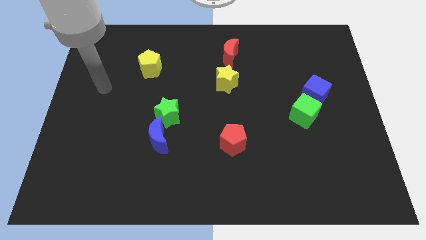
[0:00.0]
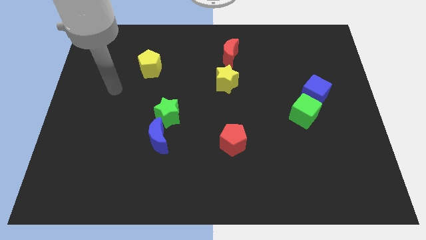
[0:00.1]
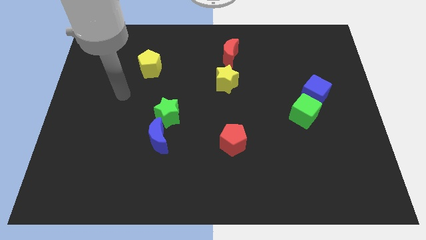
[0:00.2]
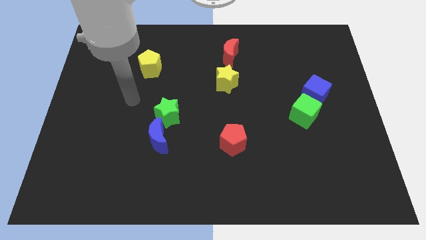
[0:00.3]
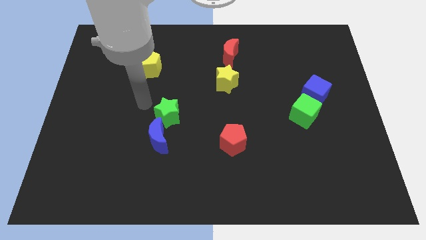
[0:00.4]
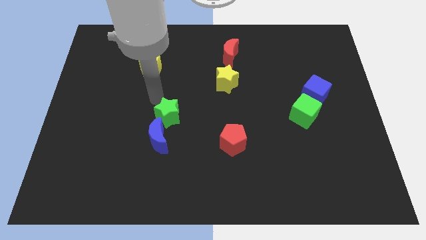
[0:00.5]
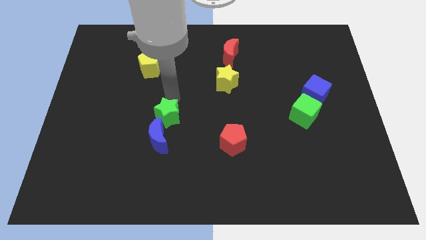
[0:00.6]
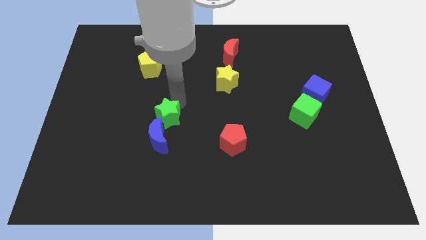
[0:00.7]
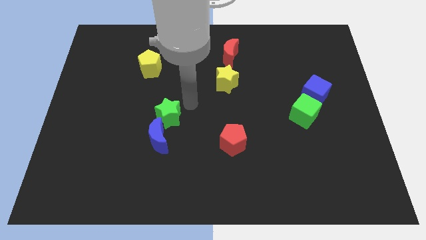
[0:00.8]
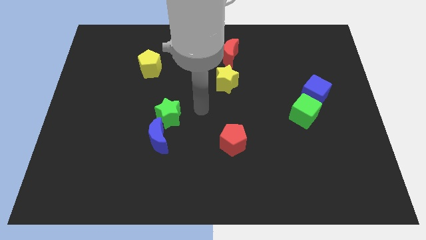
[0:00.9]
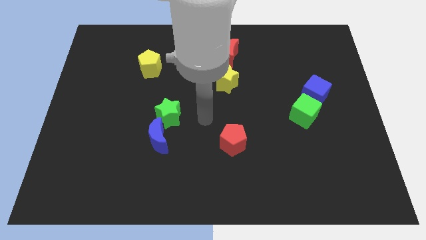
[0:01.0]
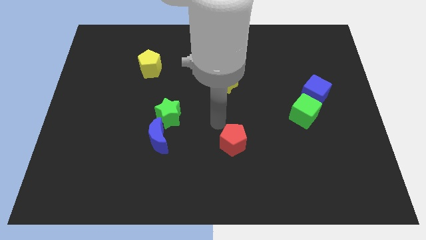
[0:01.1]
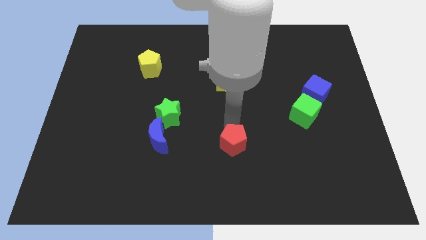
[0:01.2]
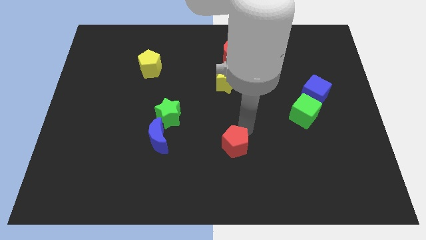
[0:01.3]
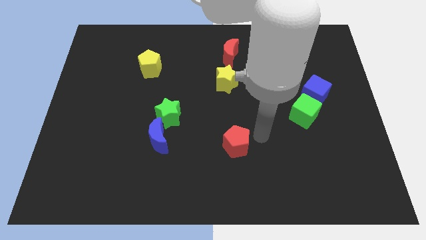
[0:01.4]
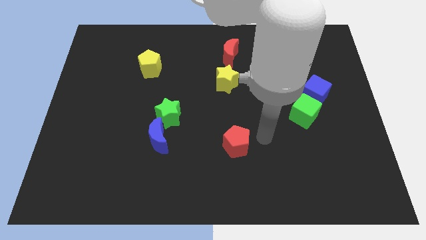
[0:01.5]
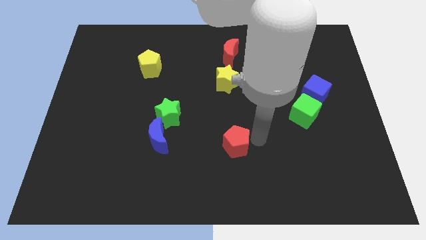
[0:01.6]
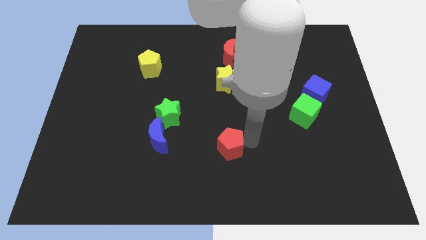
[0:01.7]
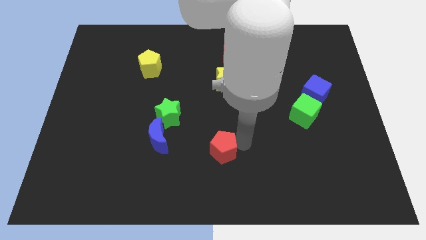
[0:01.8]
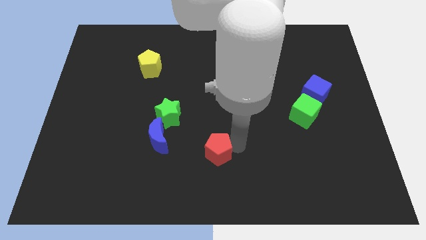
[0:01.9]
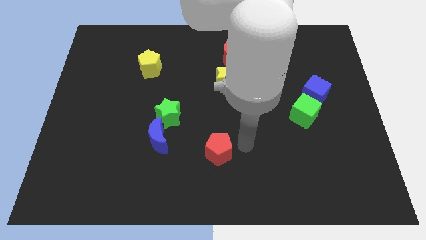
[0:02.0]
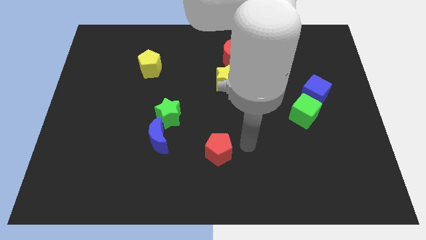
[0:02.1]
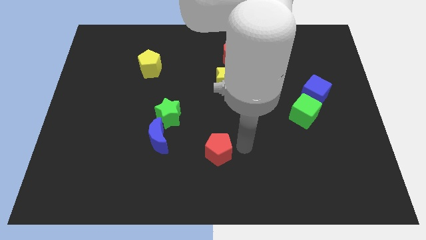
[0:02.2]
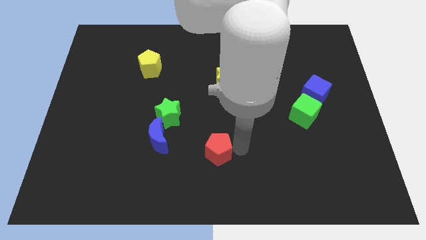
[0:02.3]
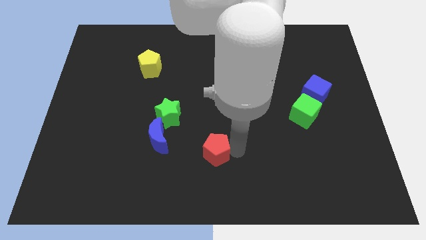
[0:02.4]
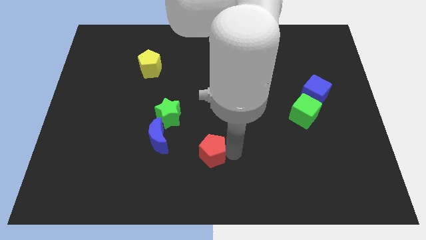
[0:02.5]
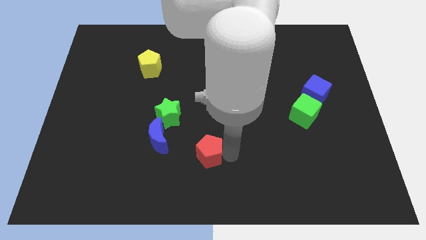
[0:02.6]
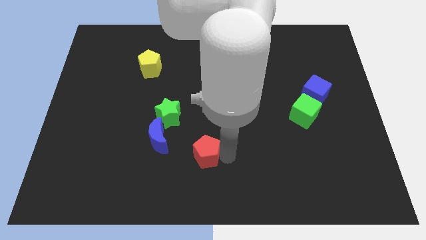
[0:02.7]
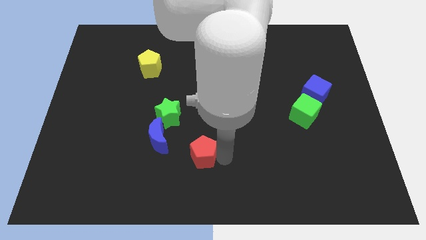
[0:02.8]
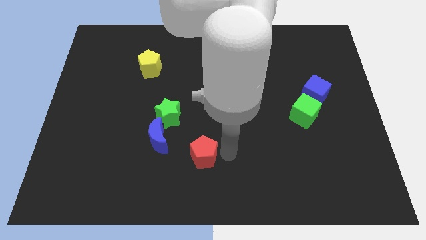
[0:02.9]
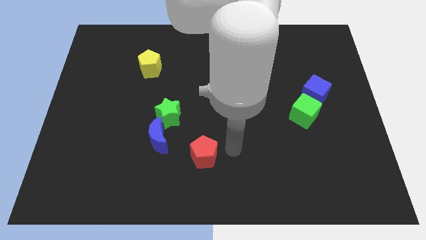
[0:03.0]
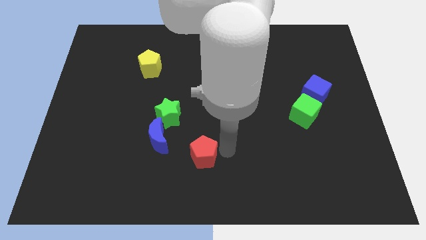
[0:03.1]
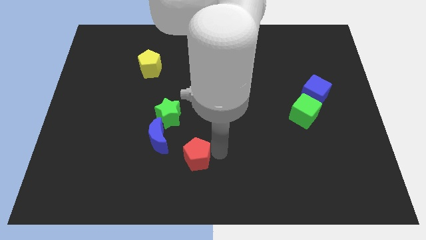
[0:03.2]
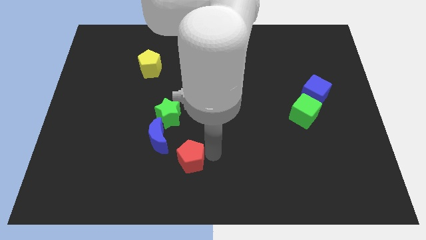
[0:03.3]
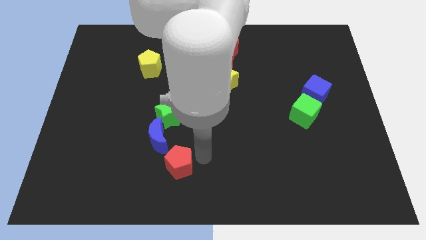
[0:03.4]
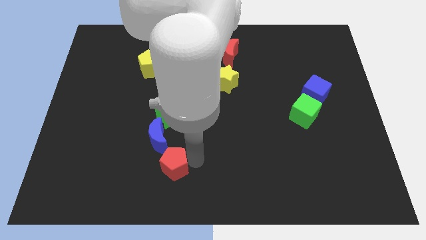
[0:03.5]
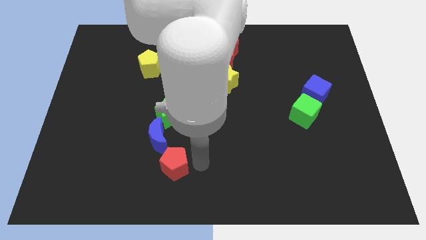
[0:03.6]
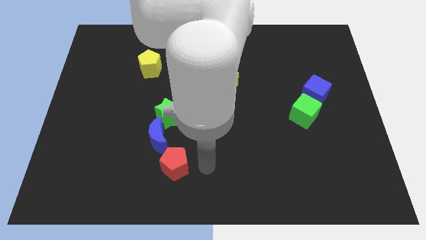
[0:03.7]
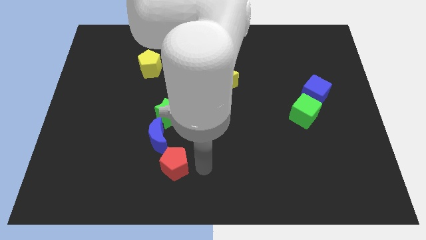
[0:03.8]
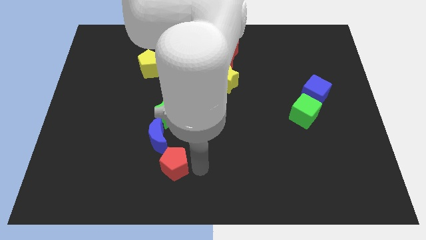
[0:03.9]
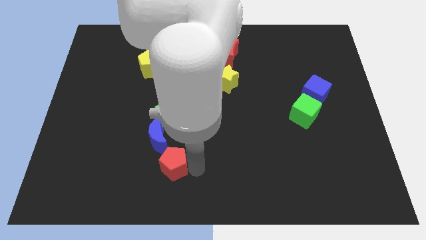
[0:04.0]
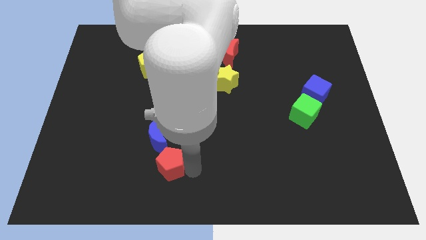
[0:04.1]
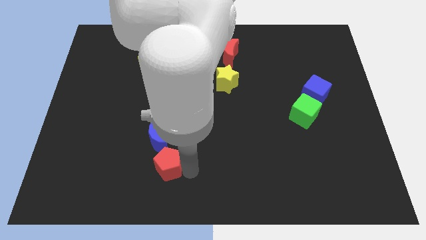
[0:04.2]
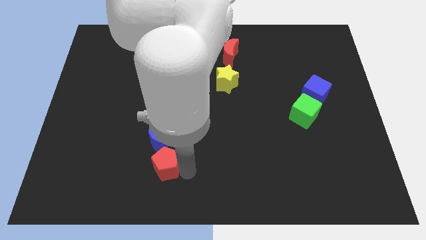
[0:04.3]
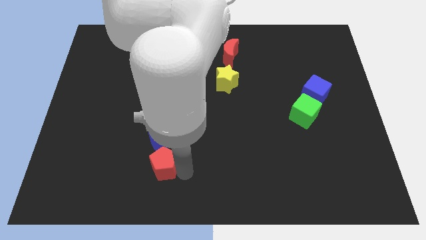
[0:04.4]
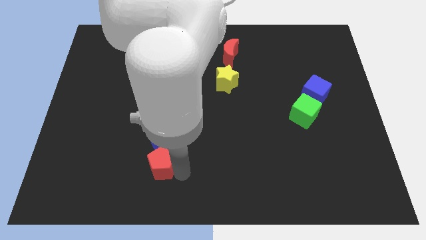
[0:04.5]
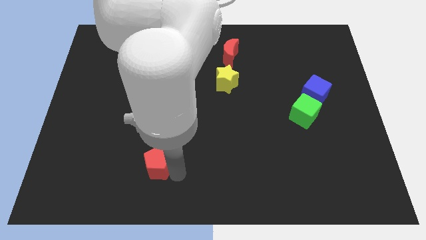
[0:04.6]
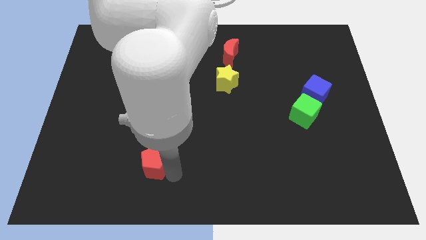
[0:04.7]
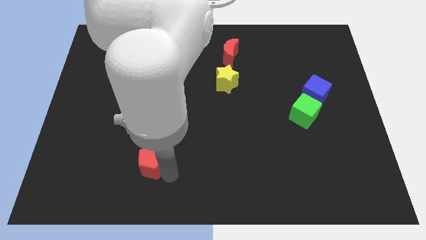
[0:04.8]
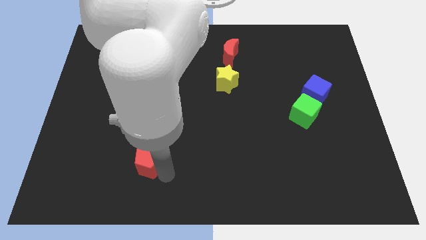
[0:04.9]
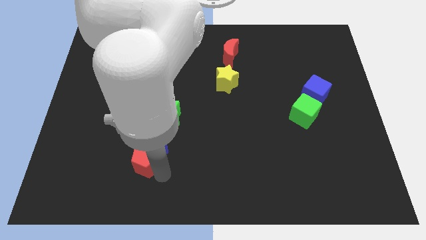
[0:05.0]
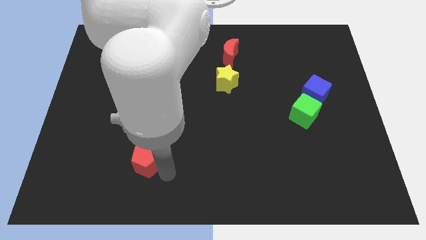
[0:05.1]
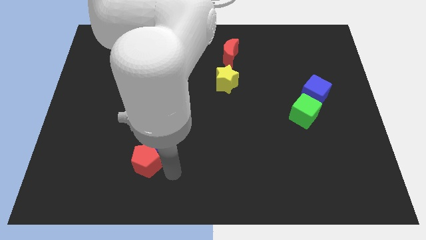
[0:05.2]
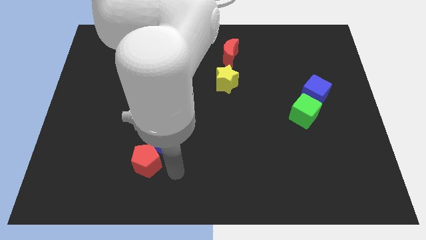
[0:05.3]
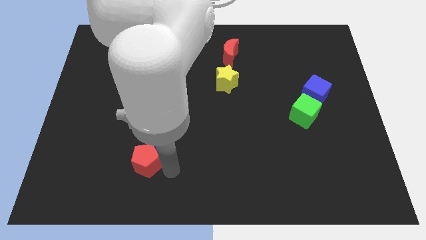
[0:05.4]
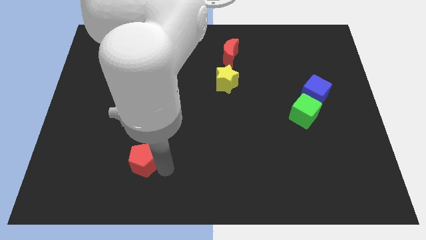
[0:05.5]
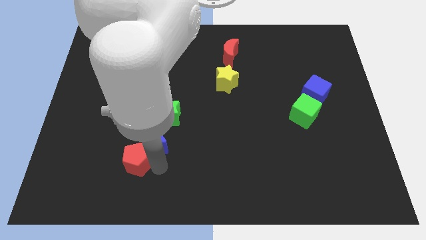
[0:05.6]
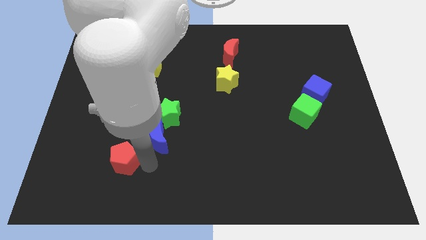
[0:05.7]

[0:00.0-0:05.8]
push the red pentagon left

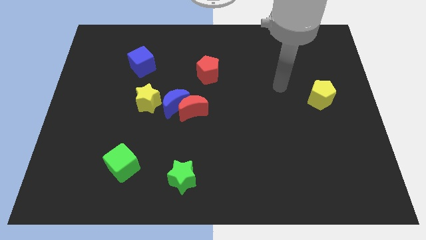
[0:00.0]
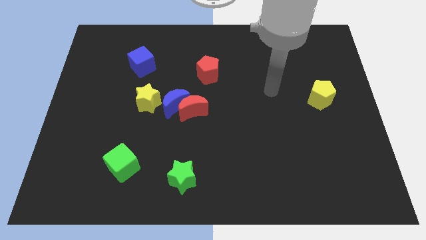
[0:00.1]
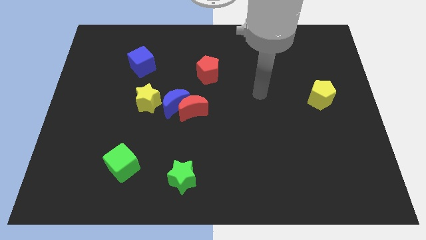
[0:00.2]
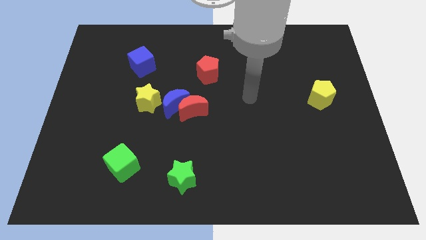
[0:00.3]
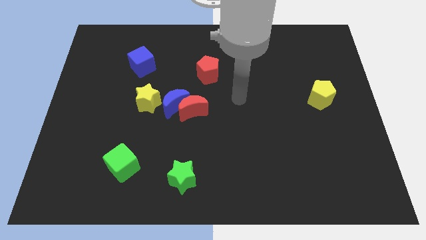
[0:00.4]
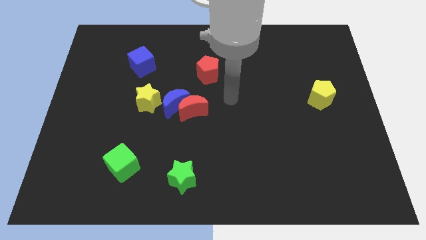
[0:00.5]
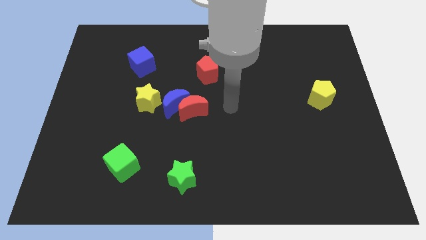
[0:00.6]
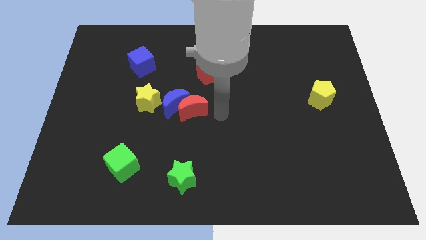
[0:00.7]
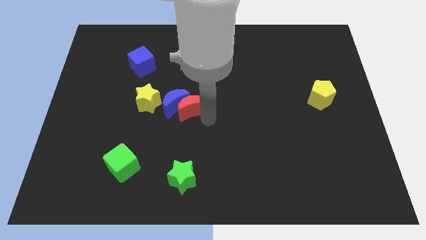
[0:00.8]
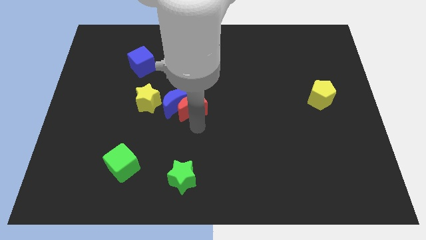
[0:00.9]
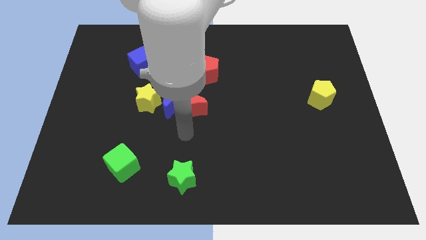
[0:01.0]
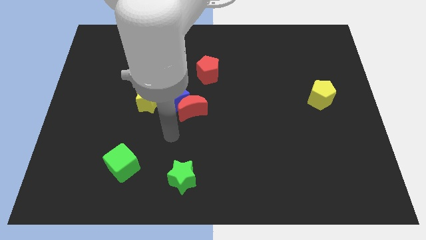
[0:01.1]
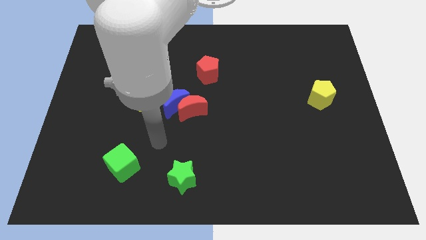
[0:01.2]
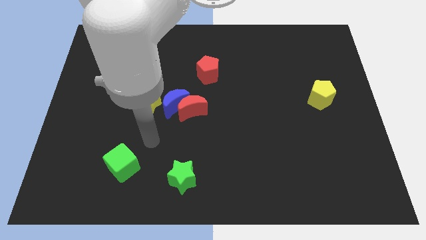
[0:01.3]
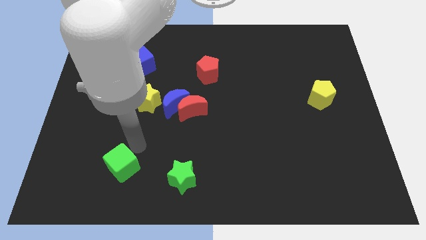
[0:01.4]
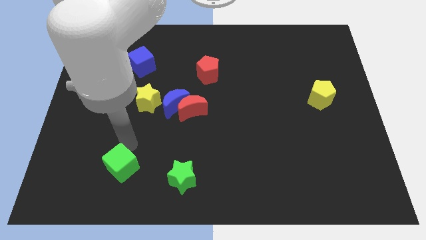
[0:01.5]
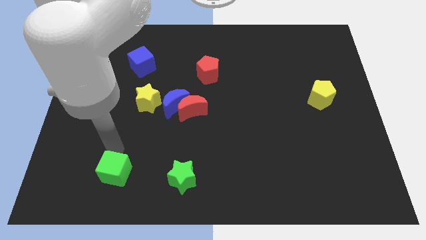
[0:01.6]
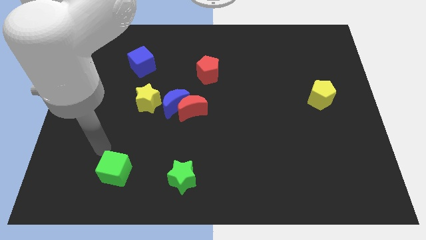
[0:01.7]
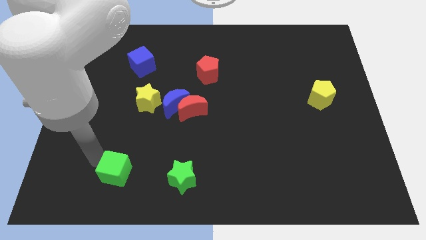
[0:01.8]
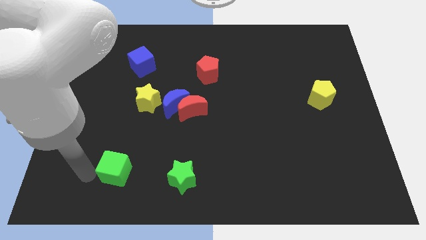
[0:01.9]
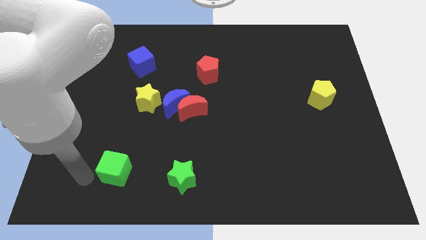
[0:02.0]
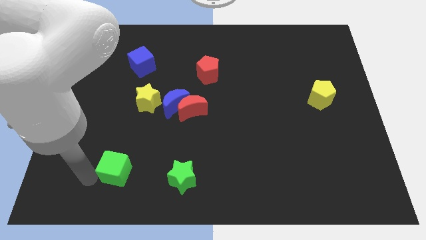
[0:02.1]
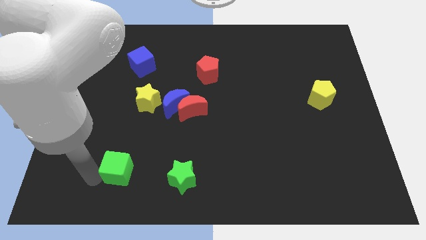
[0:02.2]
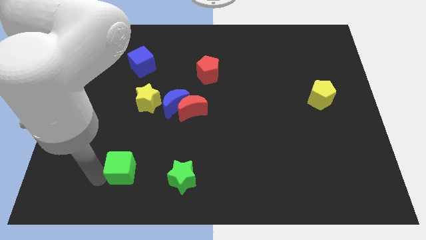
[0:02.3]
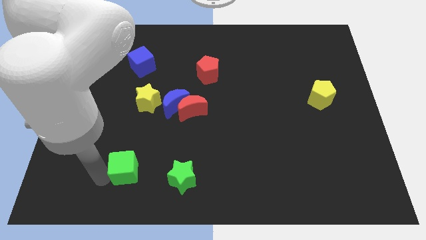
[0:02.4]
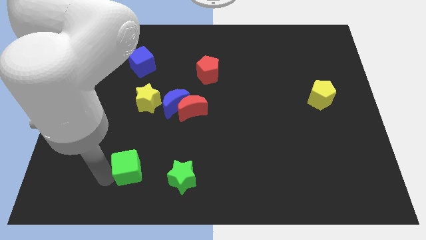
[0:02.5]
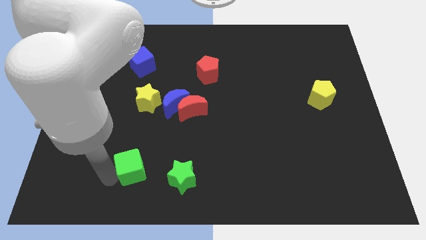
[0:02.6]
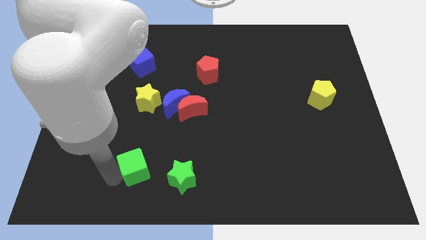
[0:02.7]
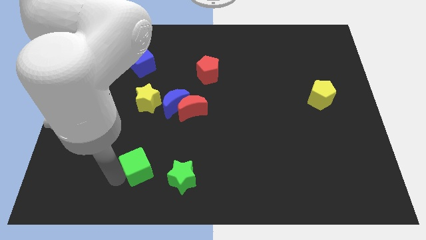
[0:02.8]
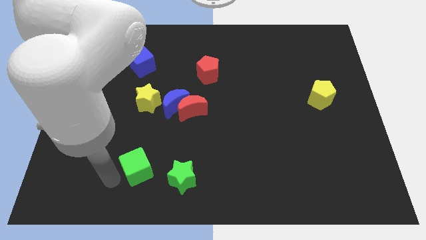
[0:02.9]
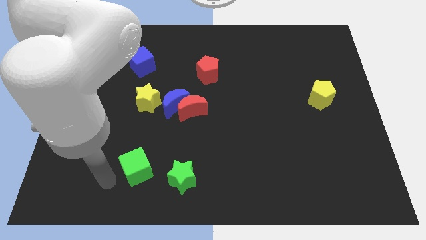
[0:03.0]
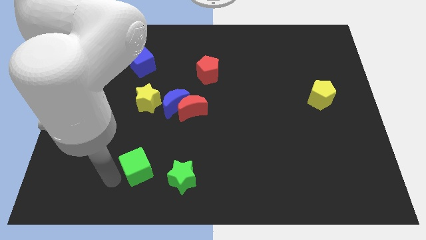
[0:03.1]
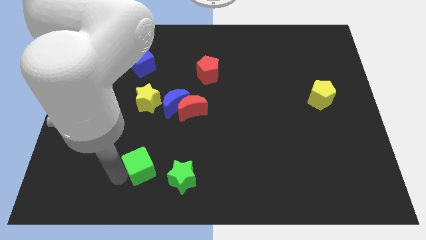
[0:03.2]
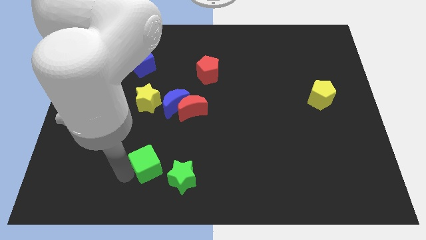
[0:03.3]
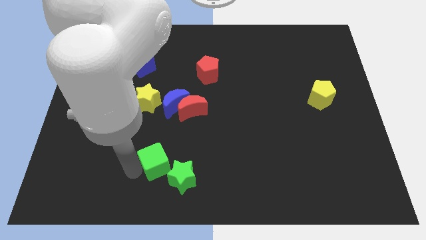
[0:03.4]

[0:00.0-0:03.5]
slightly move the green cube right
